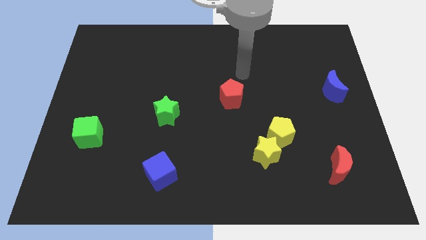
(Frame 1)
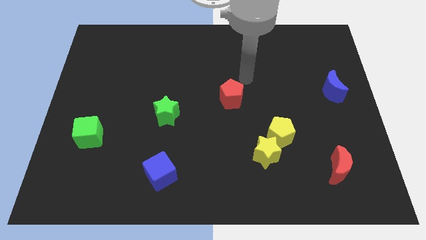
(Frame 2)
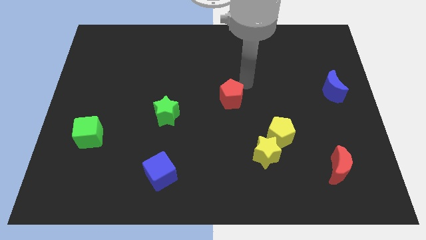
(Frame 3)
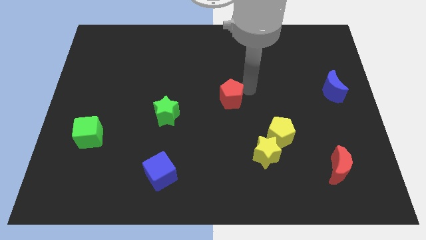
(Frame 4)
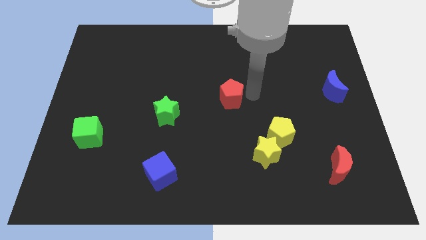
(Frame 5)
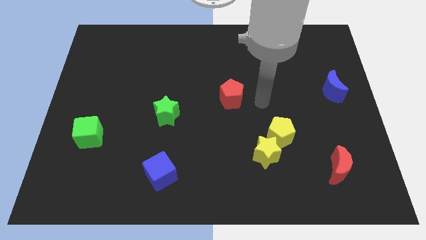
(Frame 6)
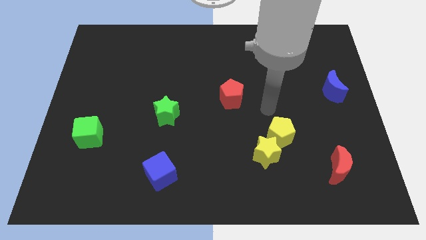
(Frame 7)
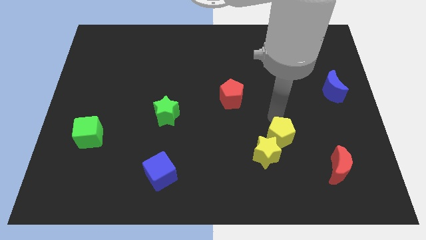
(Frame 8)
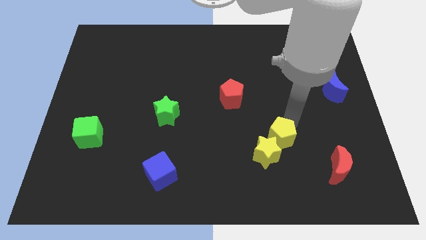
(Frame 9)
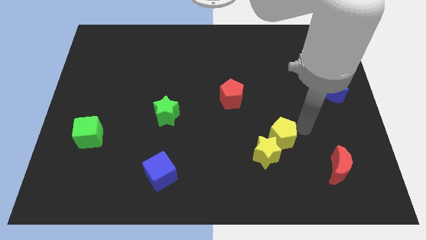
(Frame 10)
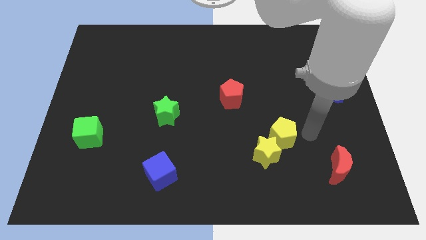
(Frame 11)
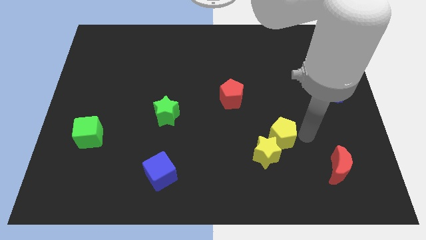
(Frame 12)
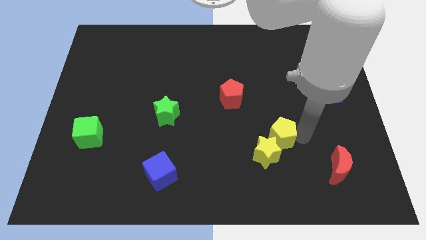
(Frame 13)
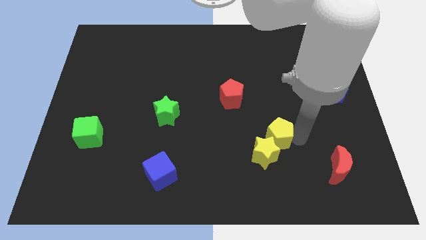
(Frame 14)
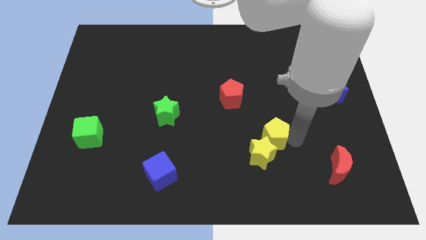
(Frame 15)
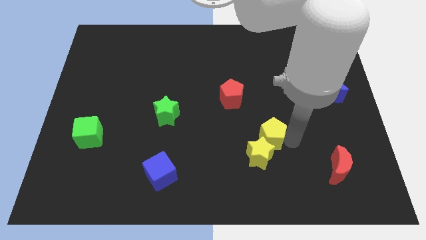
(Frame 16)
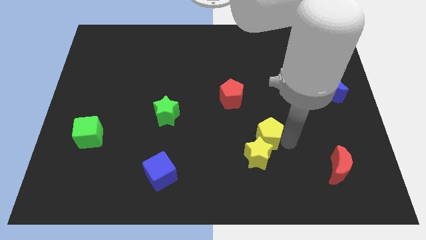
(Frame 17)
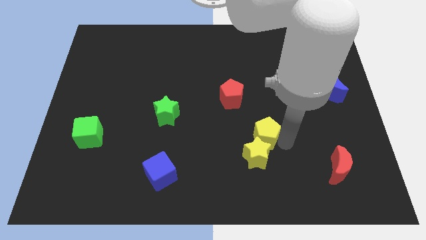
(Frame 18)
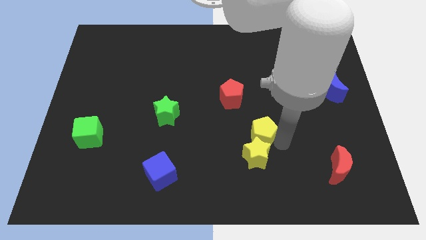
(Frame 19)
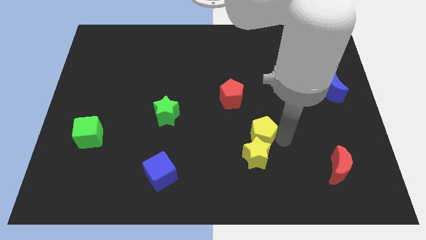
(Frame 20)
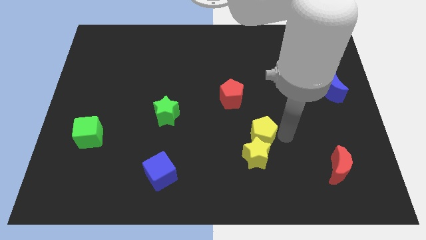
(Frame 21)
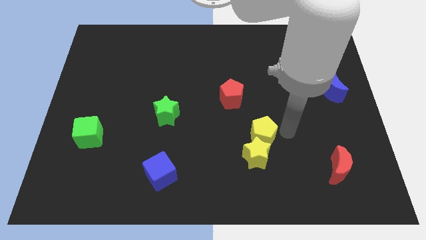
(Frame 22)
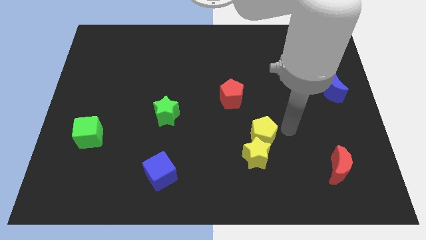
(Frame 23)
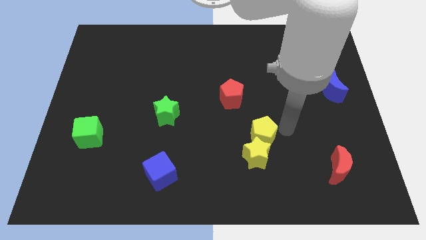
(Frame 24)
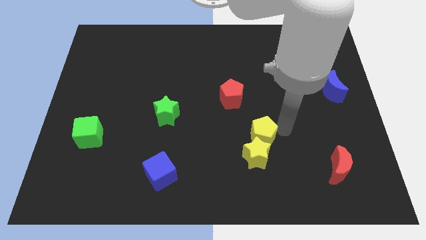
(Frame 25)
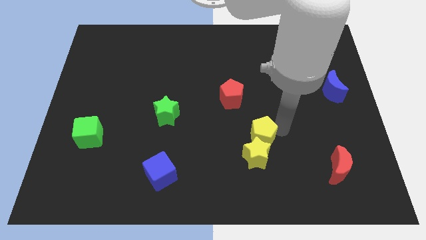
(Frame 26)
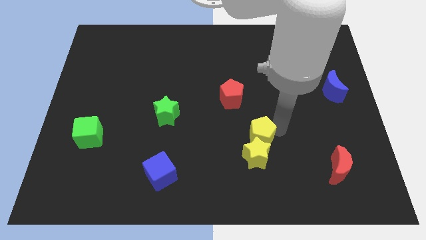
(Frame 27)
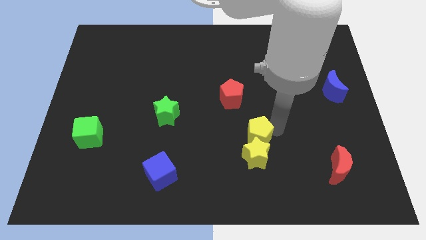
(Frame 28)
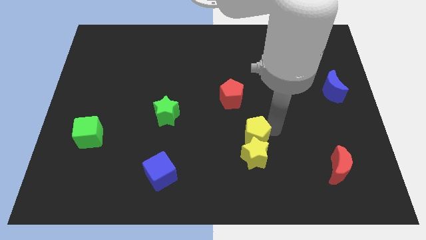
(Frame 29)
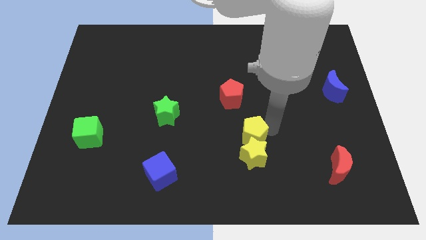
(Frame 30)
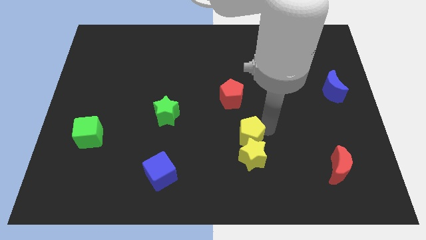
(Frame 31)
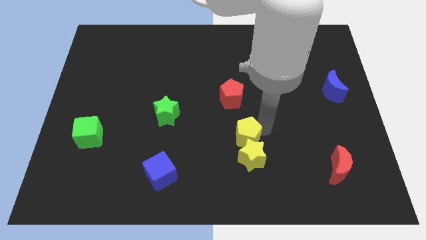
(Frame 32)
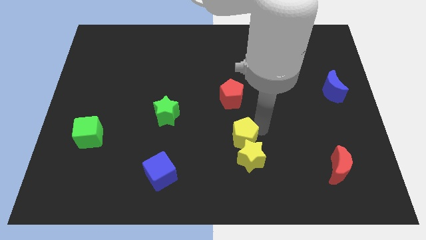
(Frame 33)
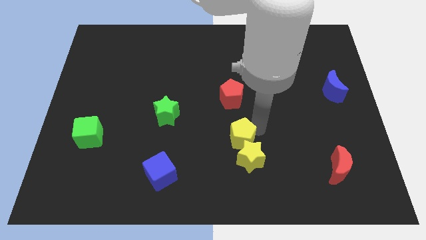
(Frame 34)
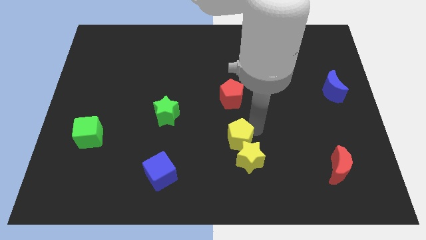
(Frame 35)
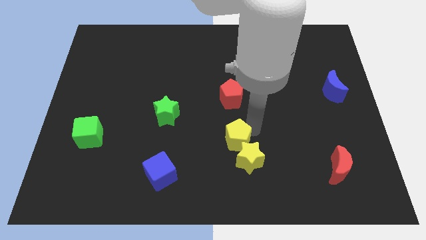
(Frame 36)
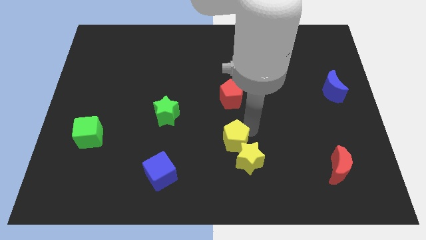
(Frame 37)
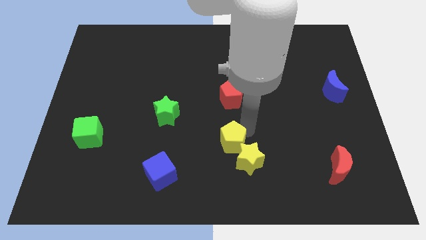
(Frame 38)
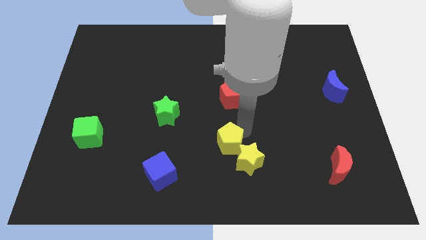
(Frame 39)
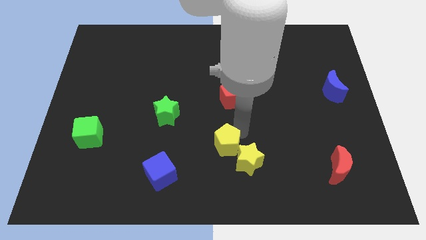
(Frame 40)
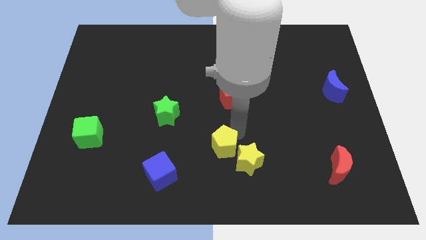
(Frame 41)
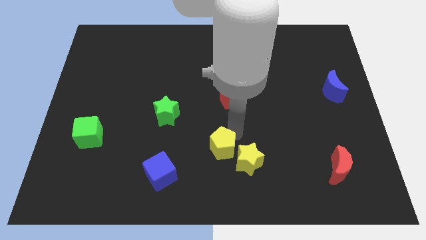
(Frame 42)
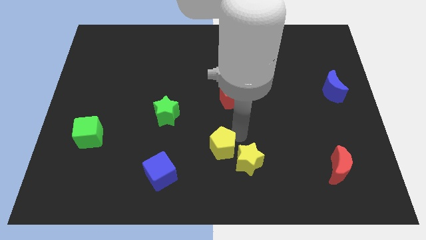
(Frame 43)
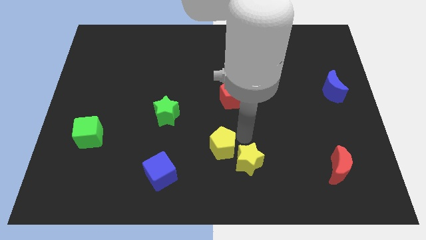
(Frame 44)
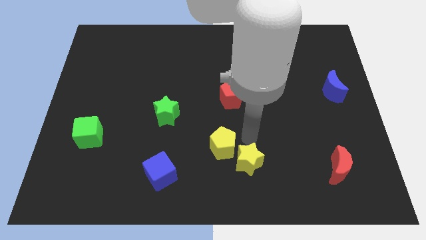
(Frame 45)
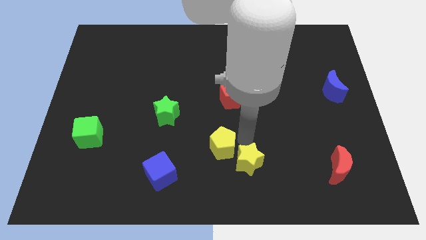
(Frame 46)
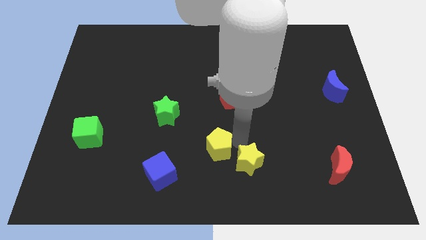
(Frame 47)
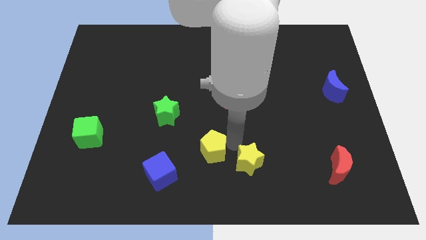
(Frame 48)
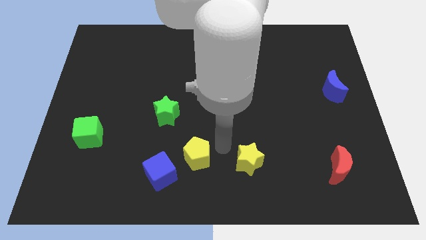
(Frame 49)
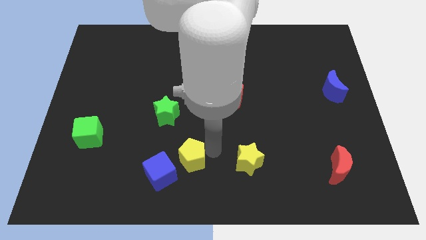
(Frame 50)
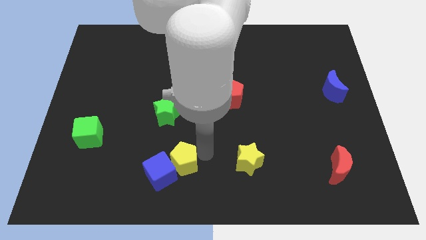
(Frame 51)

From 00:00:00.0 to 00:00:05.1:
push the yellow pentagon next to the blue cube

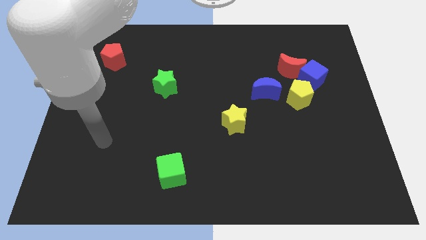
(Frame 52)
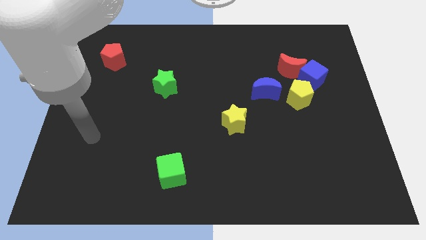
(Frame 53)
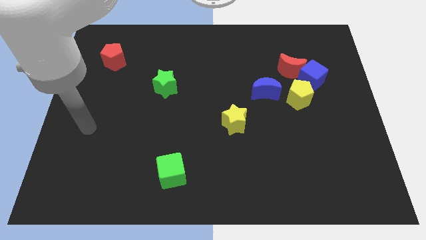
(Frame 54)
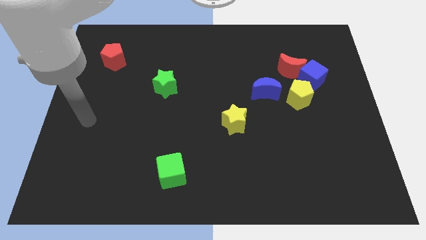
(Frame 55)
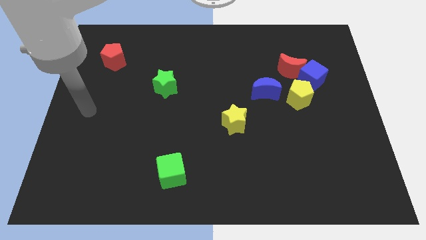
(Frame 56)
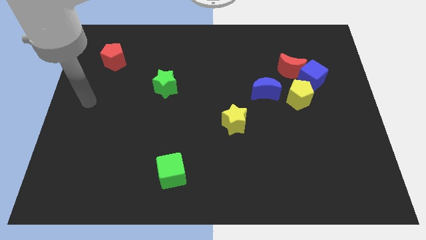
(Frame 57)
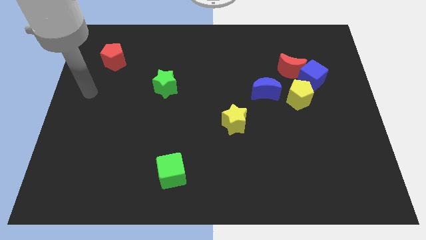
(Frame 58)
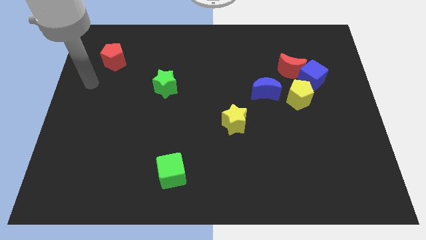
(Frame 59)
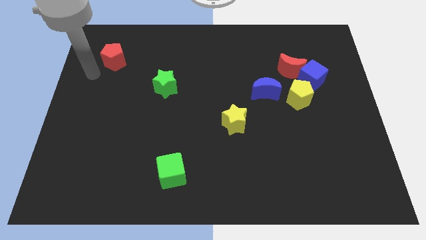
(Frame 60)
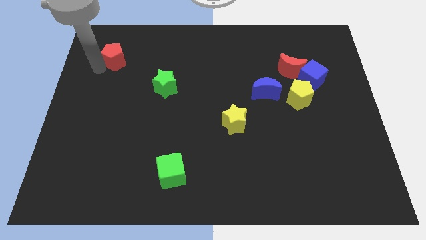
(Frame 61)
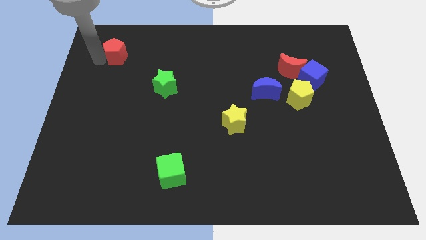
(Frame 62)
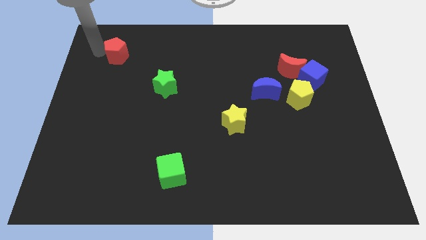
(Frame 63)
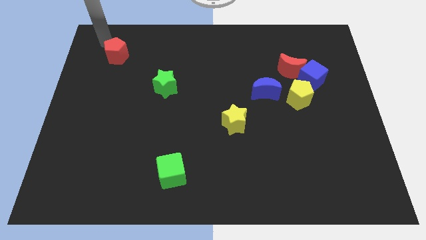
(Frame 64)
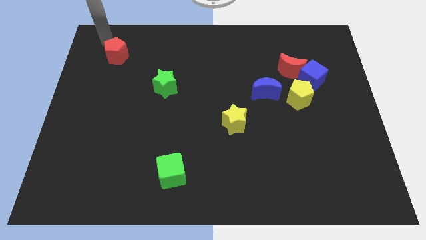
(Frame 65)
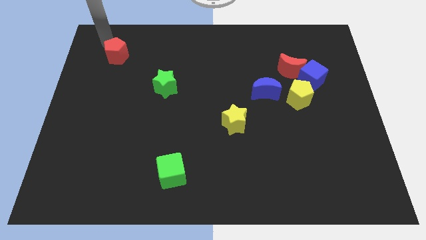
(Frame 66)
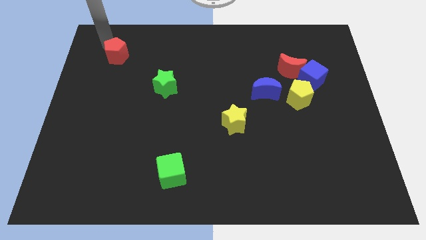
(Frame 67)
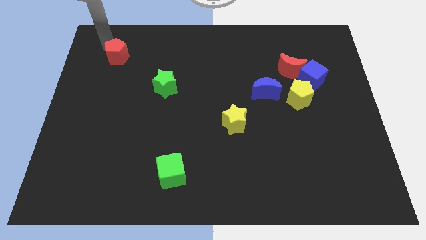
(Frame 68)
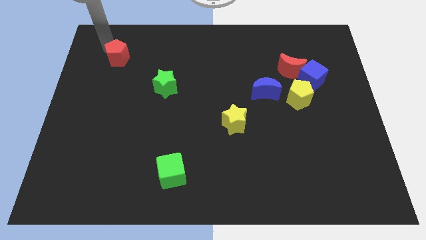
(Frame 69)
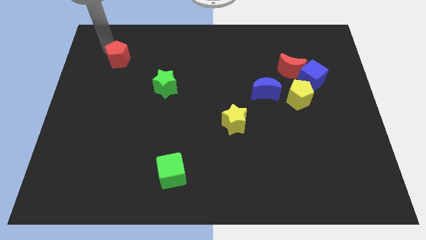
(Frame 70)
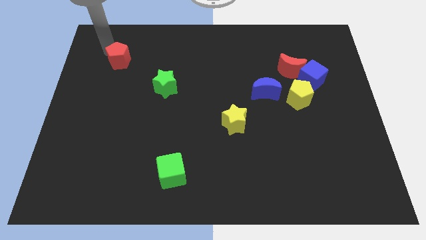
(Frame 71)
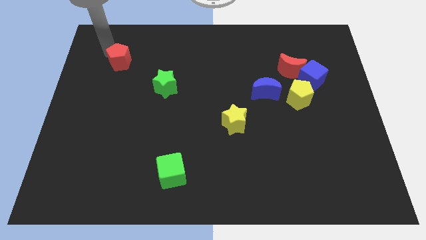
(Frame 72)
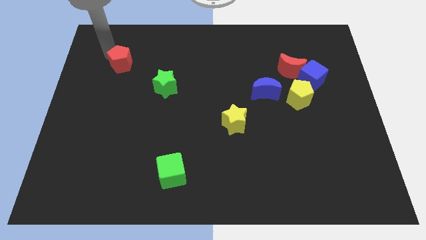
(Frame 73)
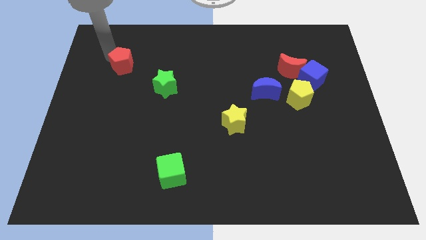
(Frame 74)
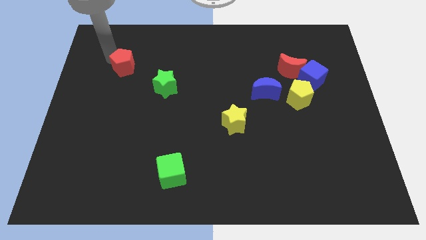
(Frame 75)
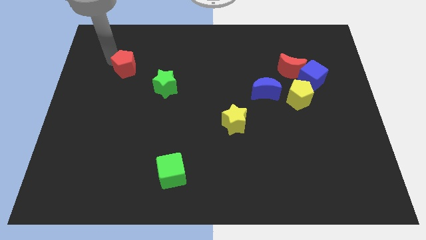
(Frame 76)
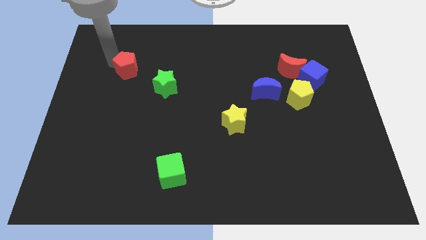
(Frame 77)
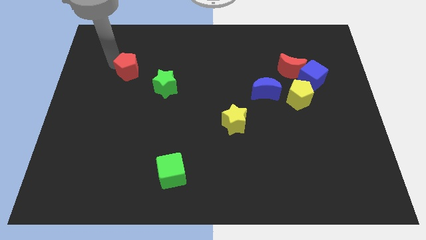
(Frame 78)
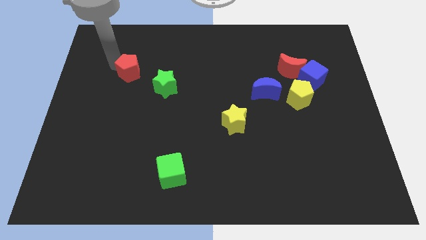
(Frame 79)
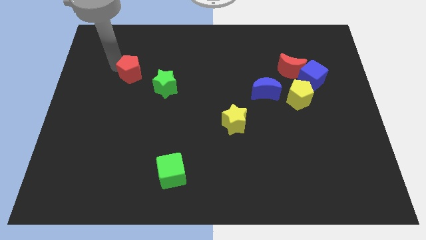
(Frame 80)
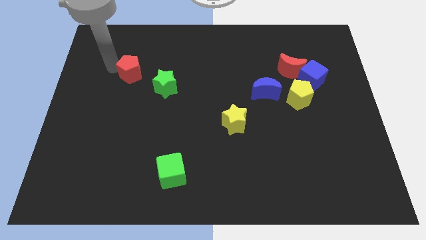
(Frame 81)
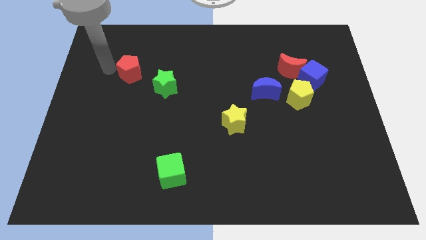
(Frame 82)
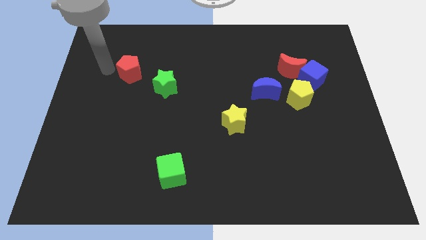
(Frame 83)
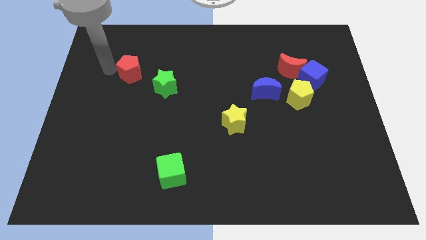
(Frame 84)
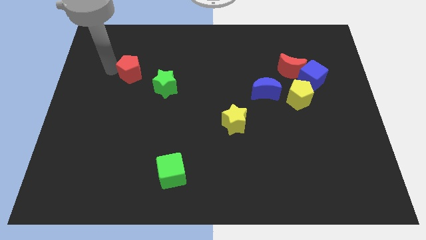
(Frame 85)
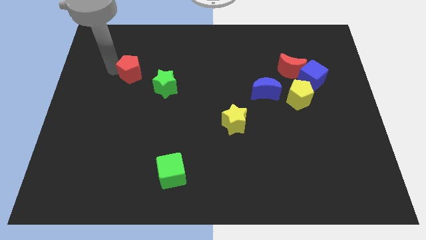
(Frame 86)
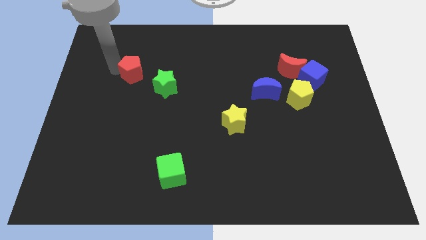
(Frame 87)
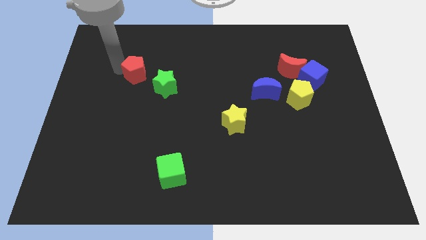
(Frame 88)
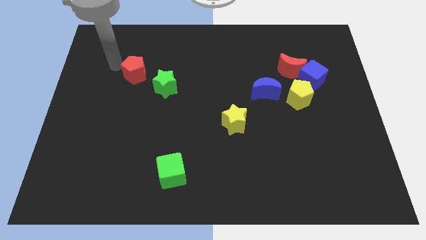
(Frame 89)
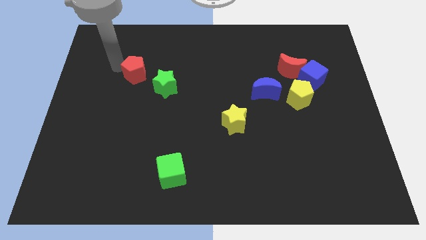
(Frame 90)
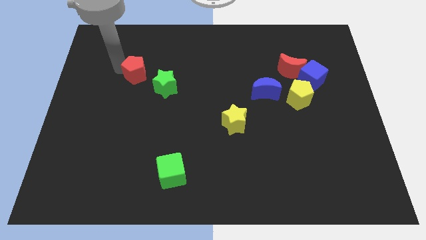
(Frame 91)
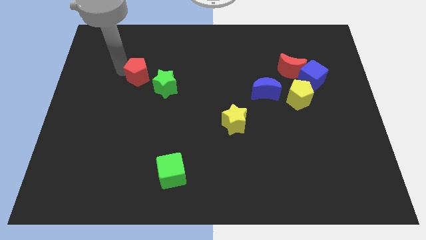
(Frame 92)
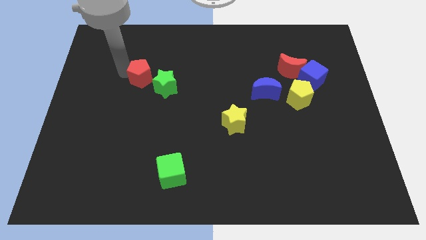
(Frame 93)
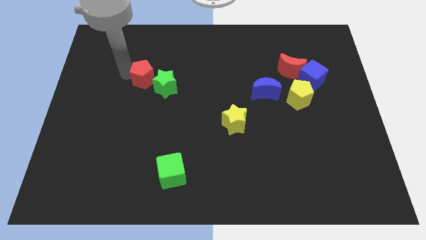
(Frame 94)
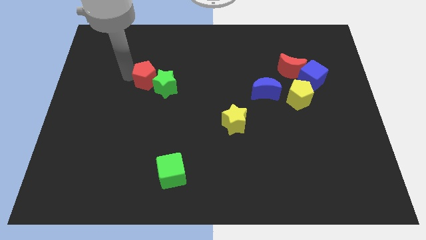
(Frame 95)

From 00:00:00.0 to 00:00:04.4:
push the red pentagon to the green star
